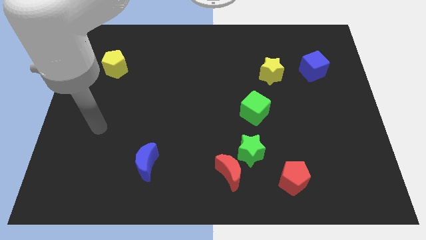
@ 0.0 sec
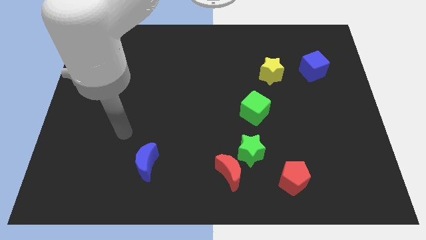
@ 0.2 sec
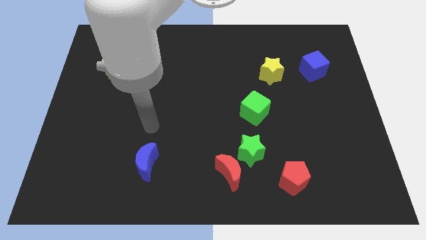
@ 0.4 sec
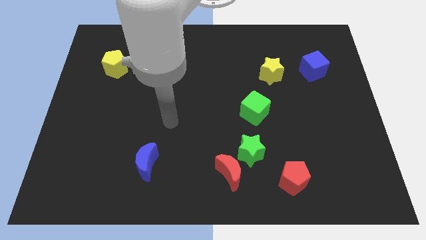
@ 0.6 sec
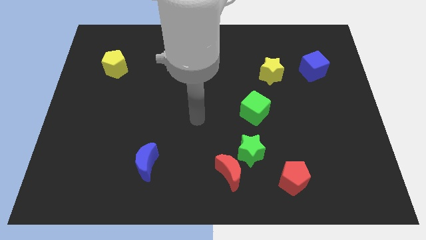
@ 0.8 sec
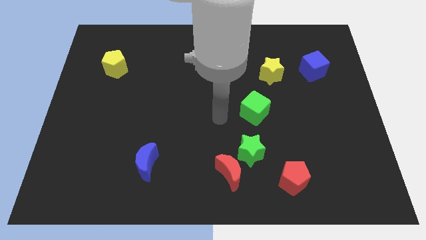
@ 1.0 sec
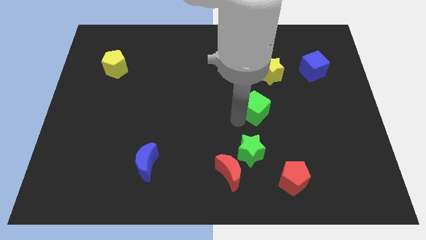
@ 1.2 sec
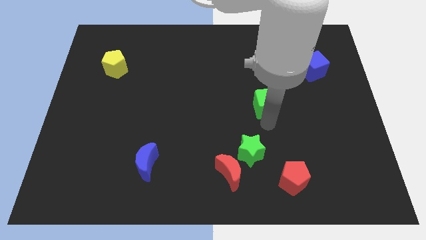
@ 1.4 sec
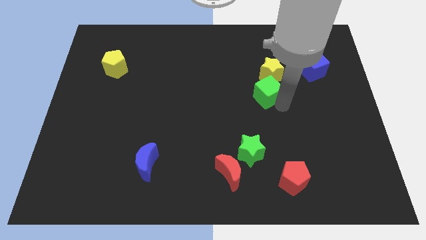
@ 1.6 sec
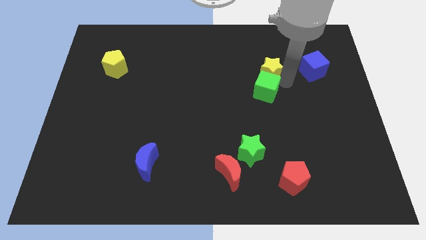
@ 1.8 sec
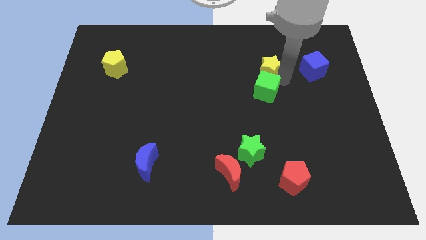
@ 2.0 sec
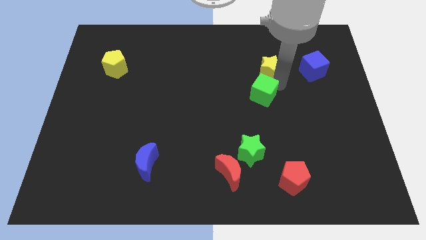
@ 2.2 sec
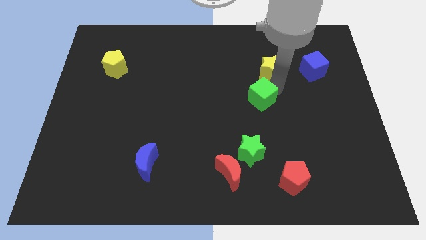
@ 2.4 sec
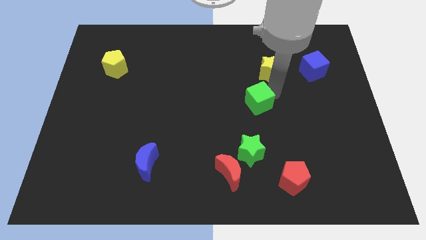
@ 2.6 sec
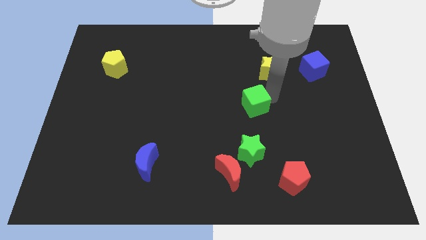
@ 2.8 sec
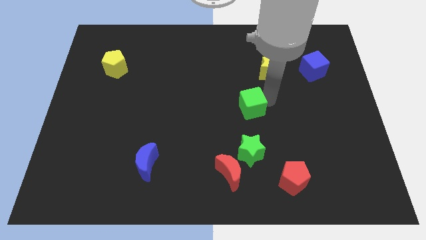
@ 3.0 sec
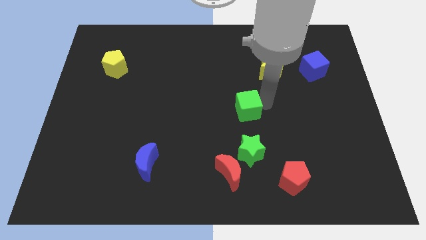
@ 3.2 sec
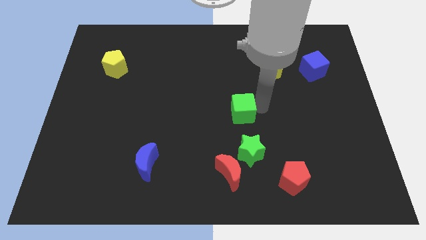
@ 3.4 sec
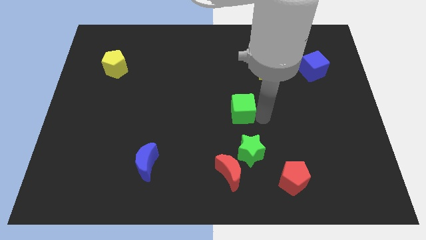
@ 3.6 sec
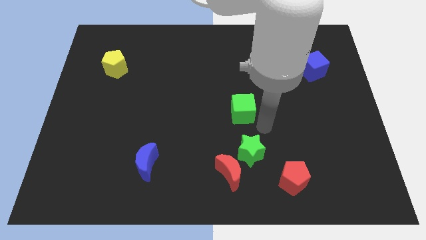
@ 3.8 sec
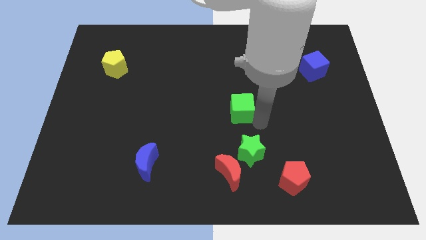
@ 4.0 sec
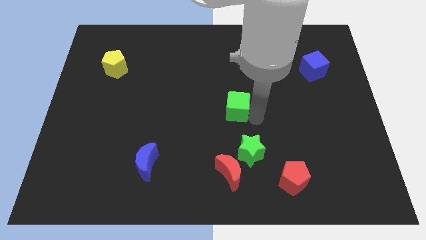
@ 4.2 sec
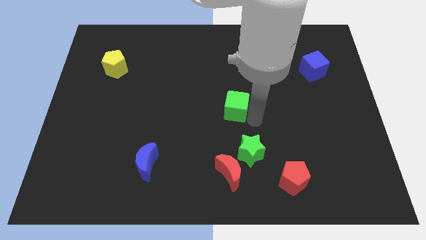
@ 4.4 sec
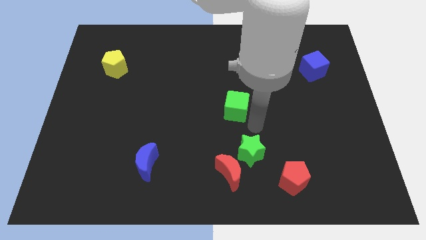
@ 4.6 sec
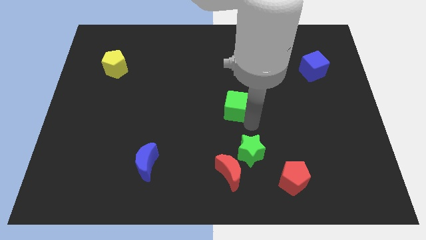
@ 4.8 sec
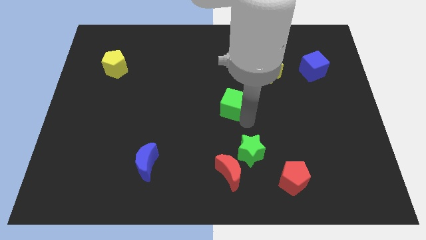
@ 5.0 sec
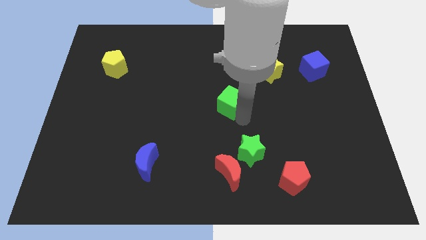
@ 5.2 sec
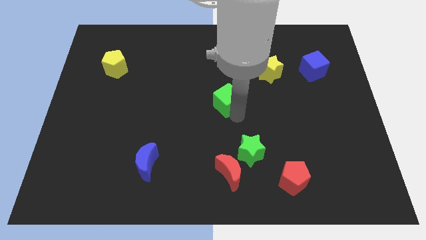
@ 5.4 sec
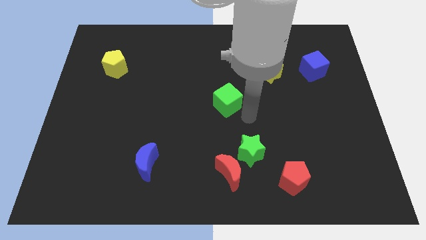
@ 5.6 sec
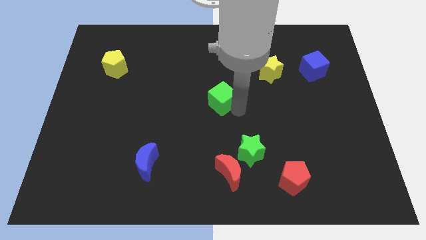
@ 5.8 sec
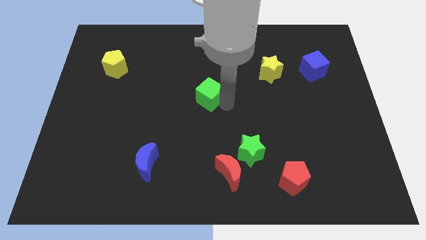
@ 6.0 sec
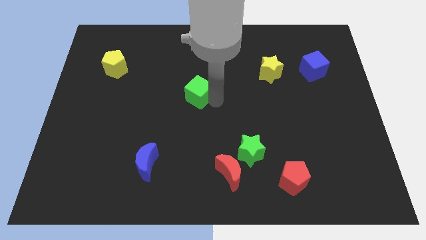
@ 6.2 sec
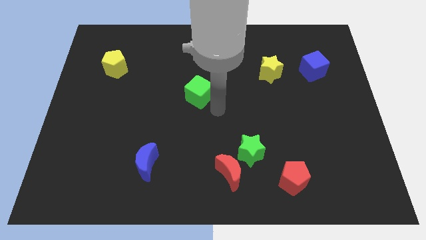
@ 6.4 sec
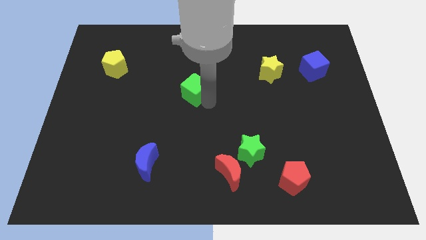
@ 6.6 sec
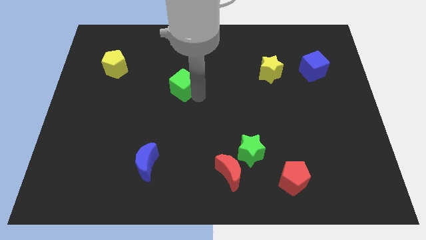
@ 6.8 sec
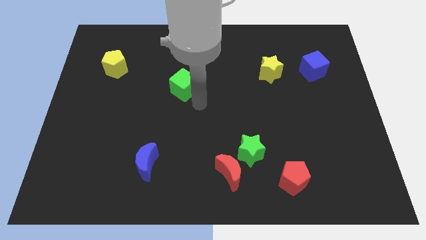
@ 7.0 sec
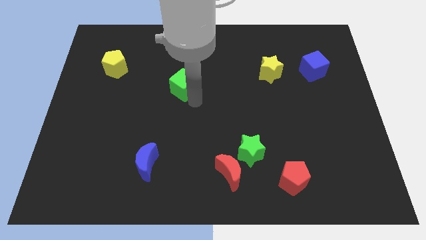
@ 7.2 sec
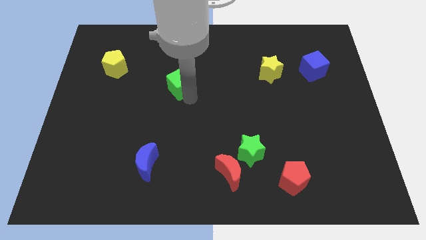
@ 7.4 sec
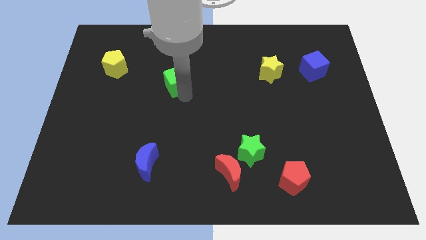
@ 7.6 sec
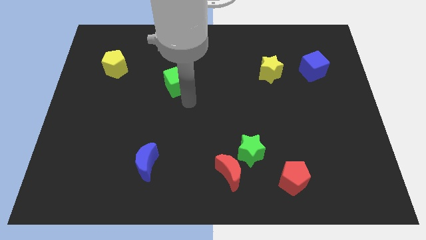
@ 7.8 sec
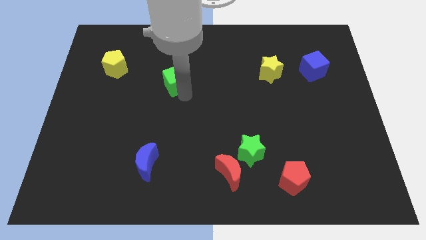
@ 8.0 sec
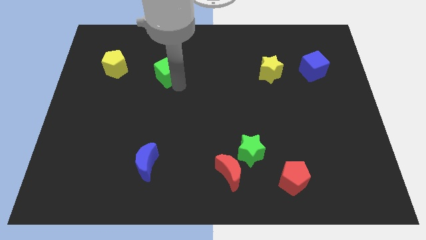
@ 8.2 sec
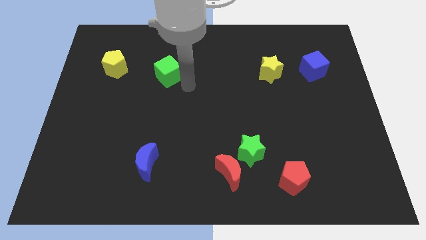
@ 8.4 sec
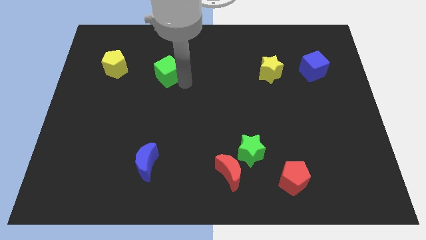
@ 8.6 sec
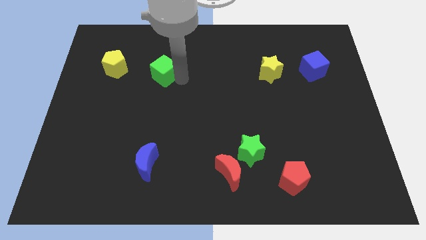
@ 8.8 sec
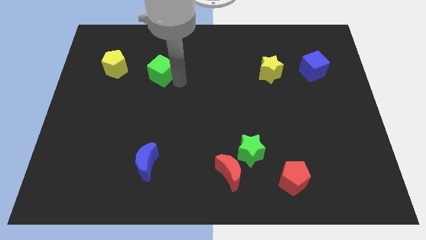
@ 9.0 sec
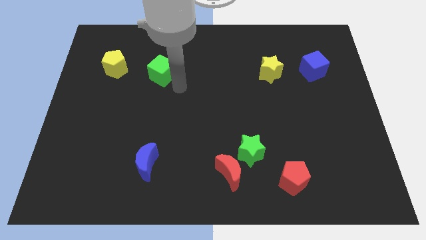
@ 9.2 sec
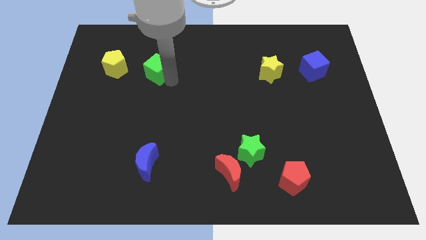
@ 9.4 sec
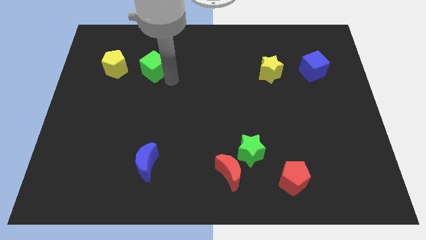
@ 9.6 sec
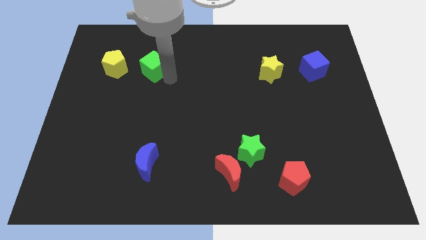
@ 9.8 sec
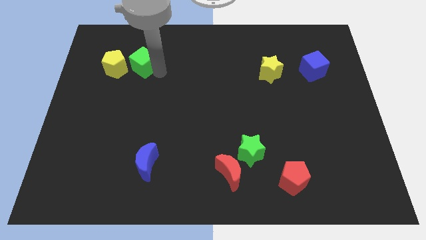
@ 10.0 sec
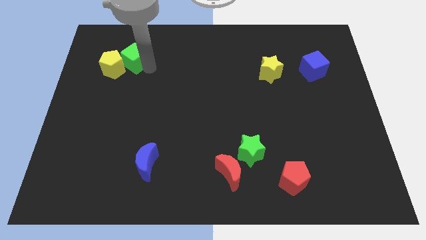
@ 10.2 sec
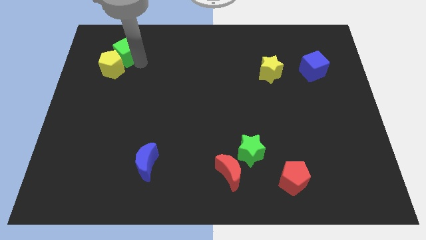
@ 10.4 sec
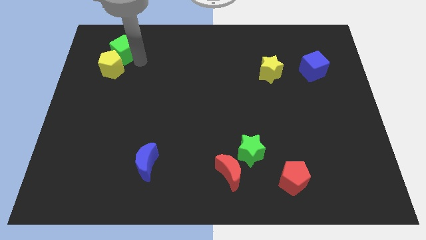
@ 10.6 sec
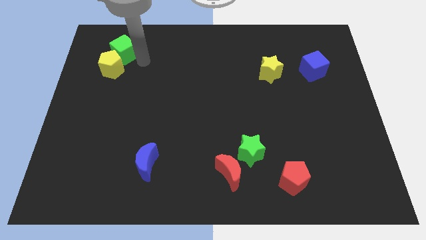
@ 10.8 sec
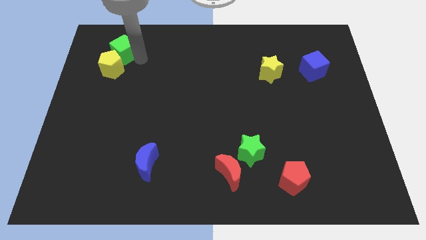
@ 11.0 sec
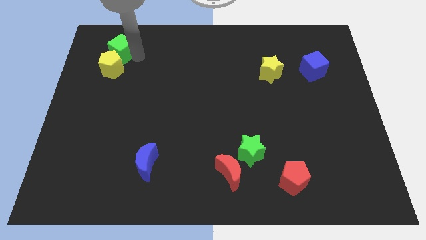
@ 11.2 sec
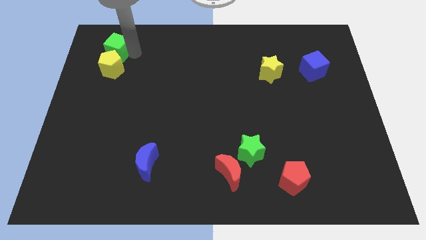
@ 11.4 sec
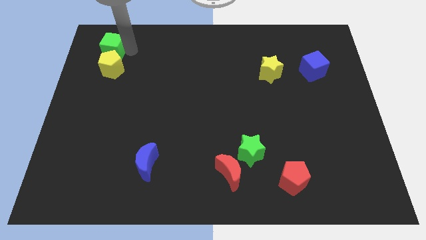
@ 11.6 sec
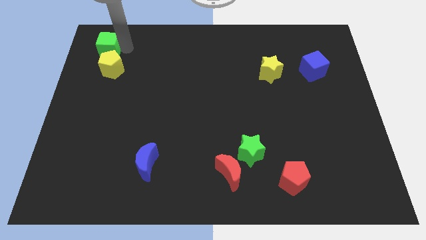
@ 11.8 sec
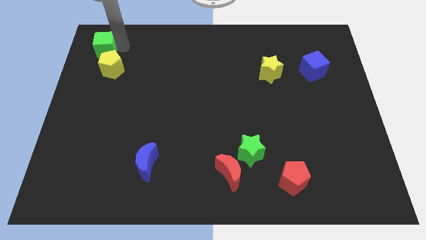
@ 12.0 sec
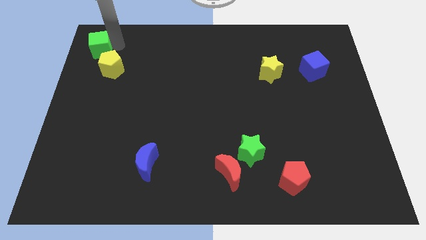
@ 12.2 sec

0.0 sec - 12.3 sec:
push the green cube to the top left of the board
